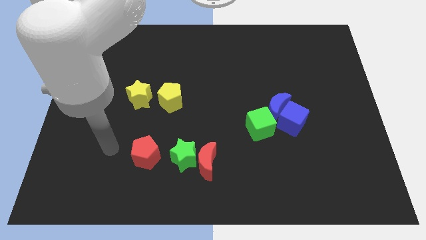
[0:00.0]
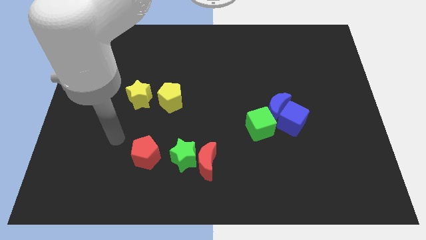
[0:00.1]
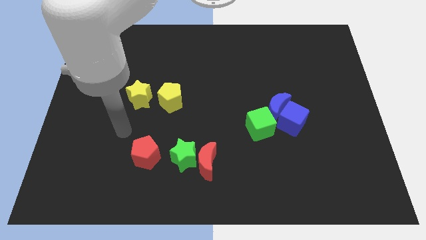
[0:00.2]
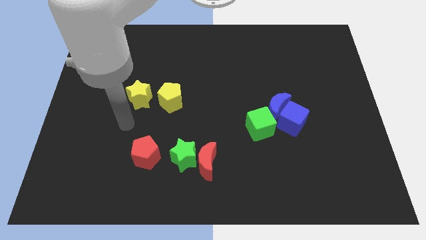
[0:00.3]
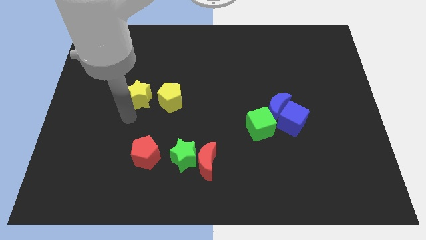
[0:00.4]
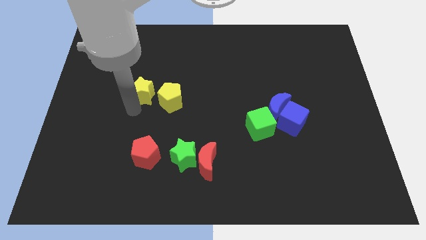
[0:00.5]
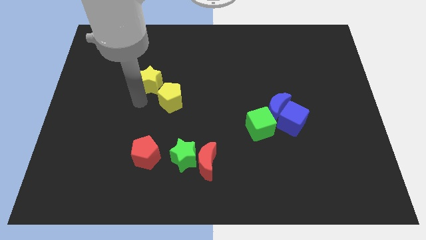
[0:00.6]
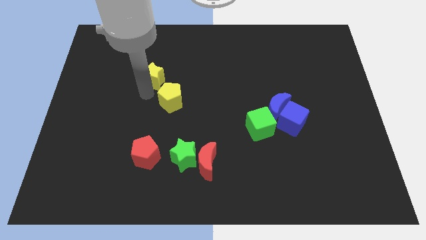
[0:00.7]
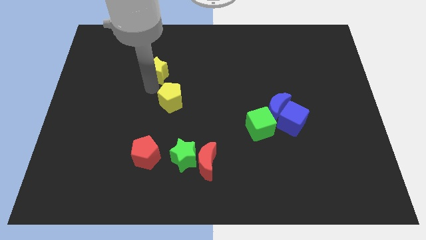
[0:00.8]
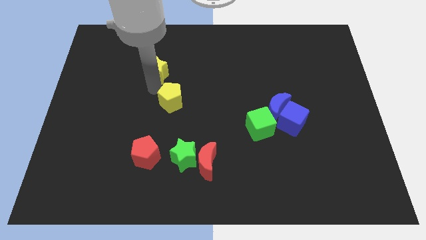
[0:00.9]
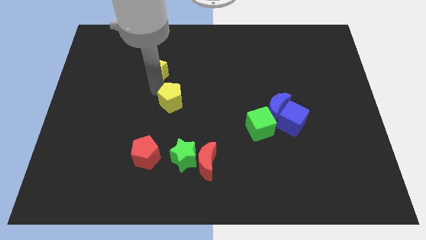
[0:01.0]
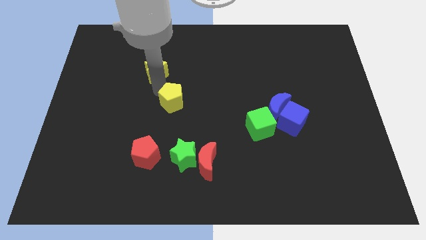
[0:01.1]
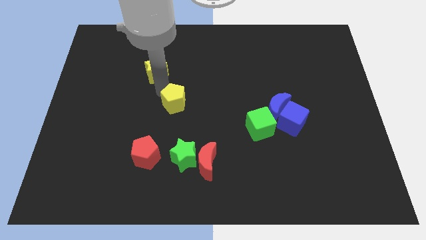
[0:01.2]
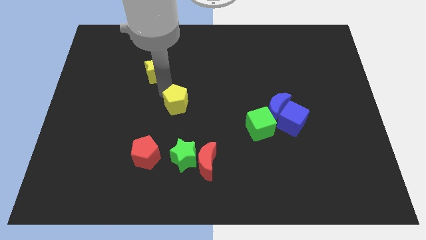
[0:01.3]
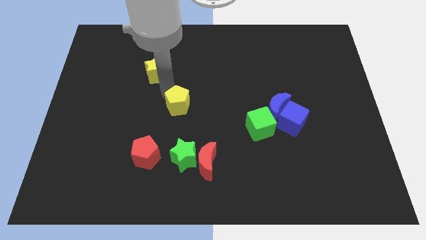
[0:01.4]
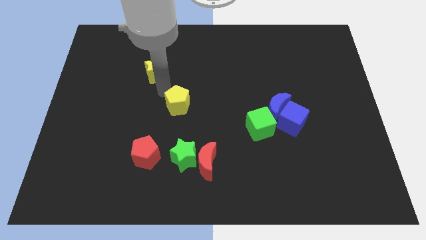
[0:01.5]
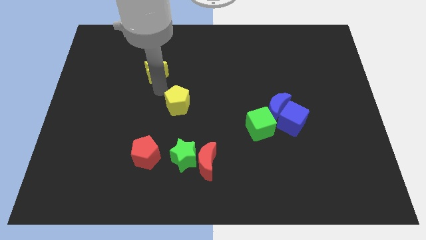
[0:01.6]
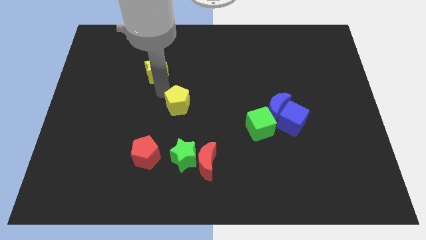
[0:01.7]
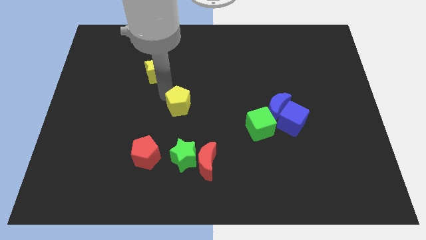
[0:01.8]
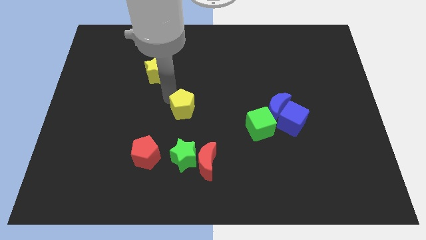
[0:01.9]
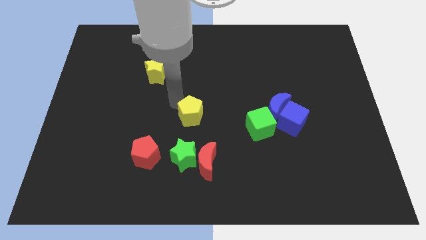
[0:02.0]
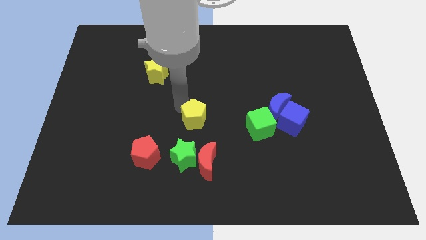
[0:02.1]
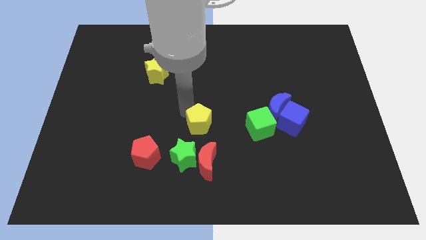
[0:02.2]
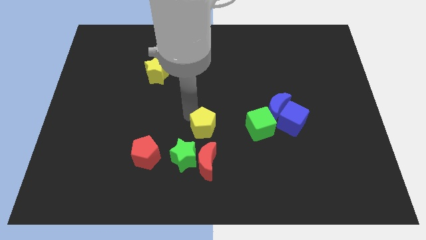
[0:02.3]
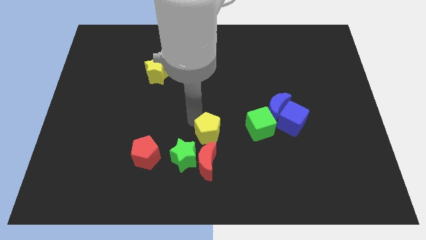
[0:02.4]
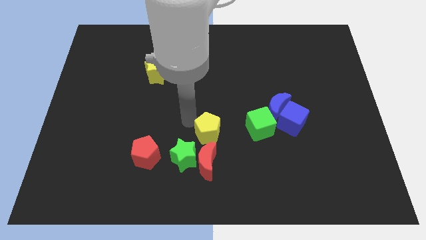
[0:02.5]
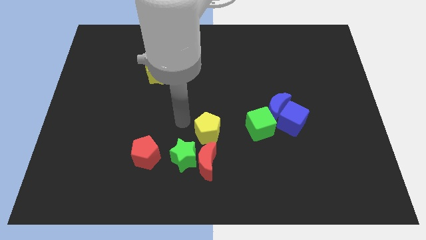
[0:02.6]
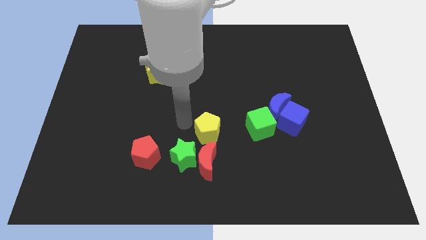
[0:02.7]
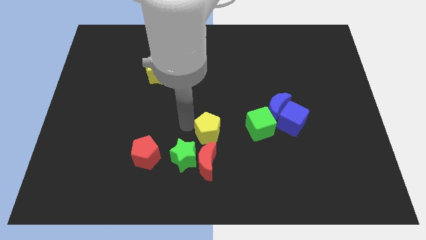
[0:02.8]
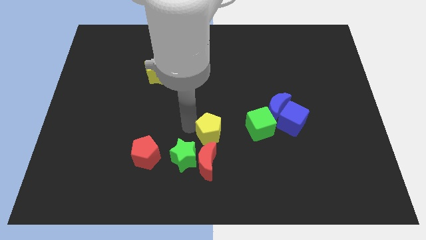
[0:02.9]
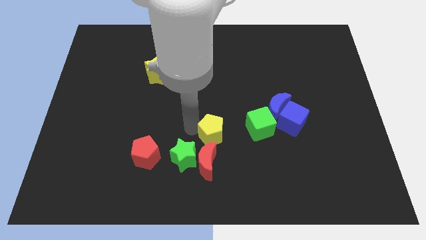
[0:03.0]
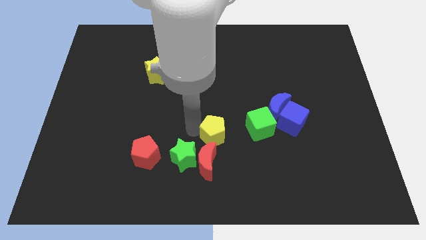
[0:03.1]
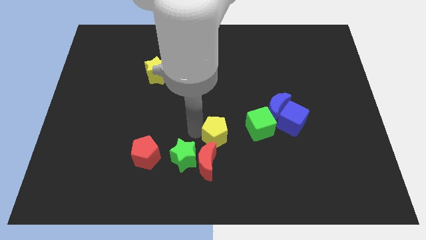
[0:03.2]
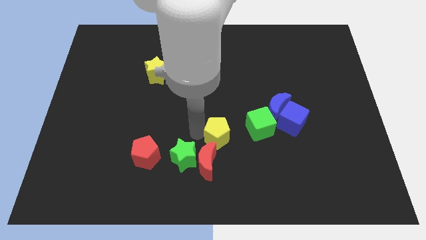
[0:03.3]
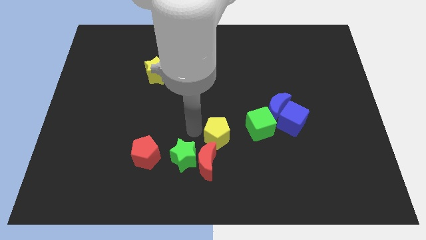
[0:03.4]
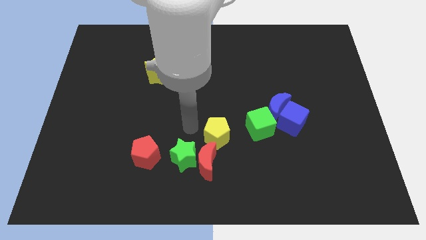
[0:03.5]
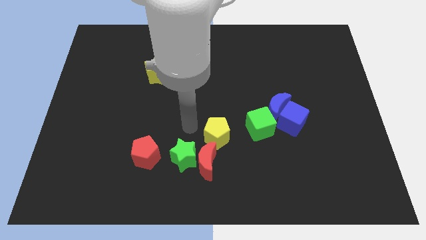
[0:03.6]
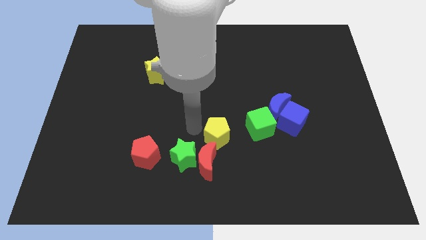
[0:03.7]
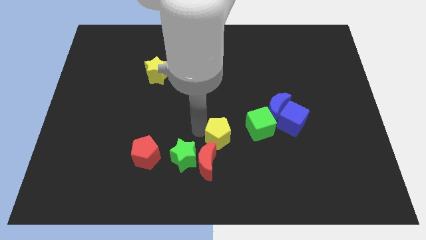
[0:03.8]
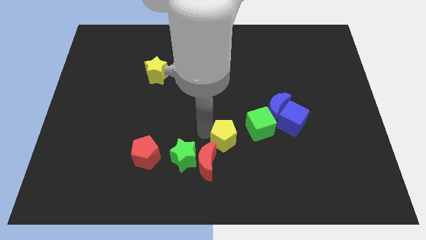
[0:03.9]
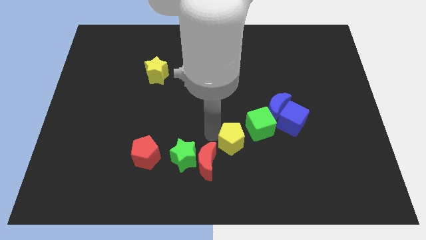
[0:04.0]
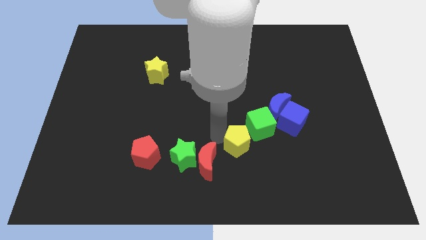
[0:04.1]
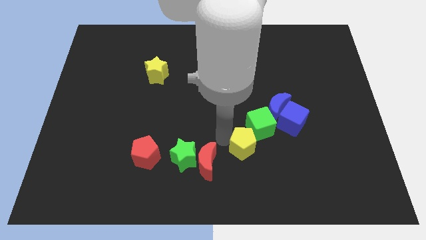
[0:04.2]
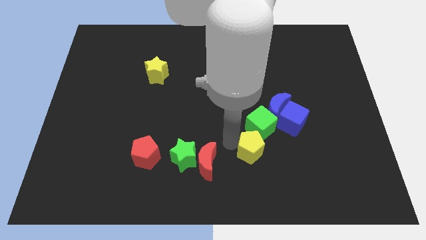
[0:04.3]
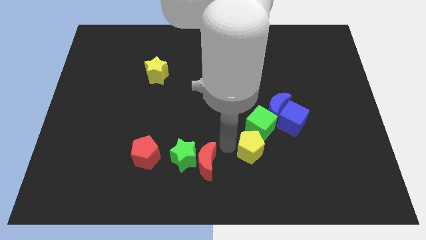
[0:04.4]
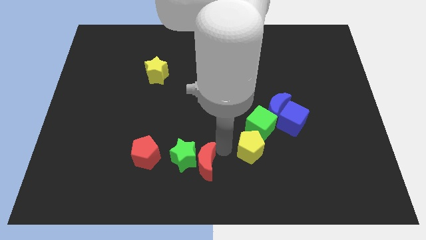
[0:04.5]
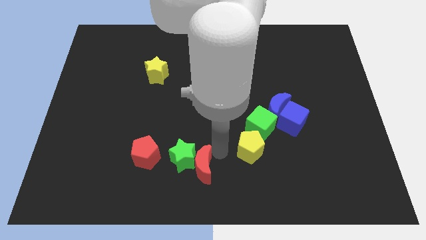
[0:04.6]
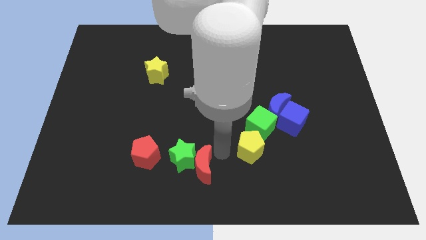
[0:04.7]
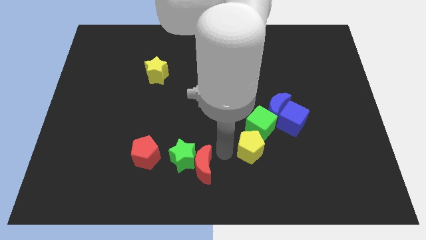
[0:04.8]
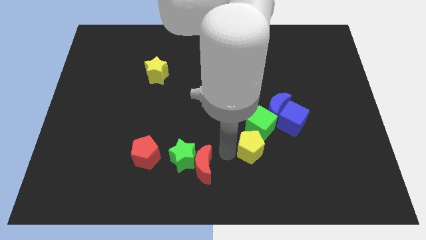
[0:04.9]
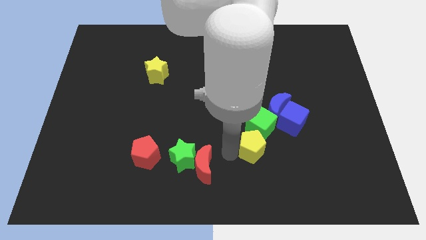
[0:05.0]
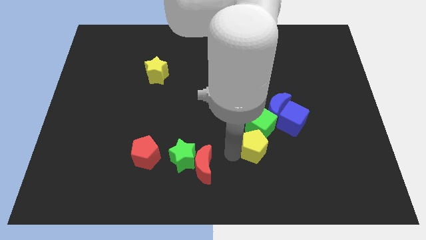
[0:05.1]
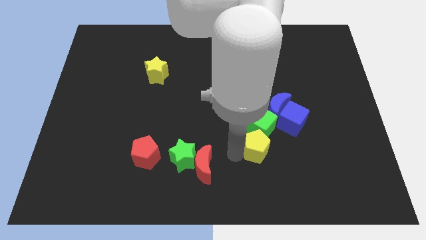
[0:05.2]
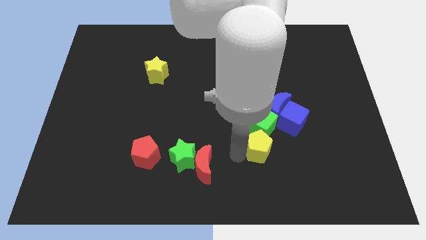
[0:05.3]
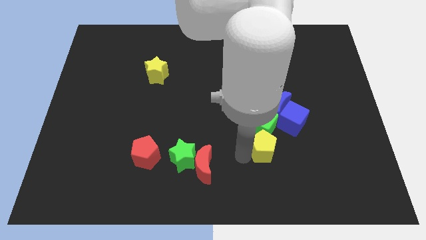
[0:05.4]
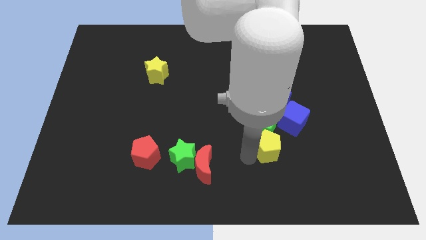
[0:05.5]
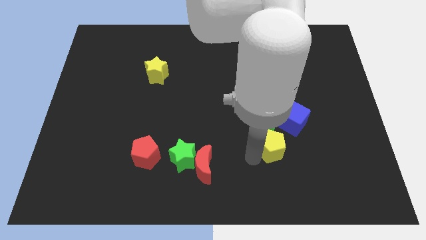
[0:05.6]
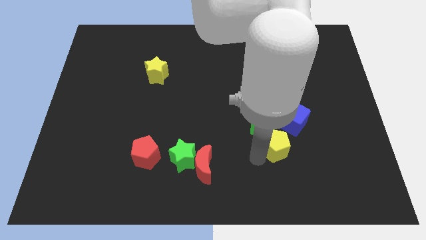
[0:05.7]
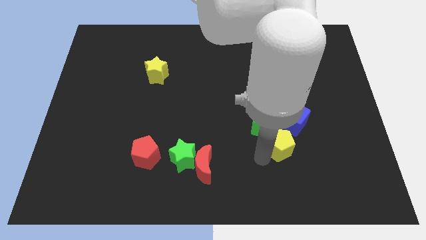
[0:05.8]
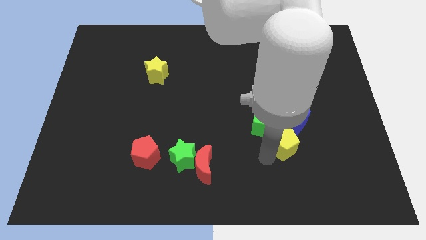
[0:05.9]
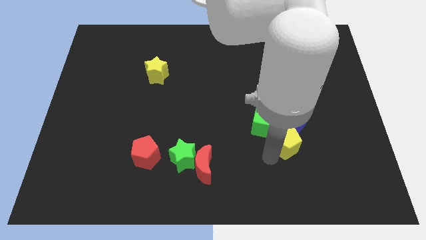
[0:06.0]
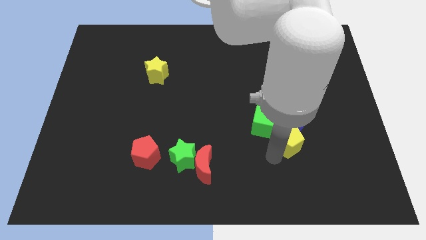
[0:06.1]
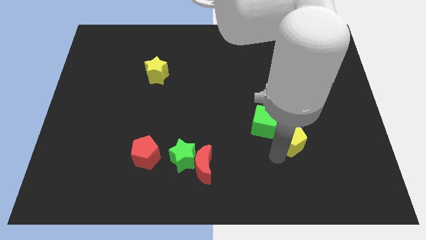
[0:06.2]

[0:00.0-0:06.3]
push the yellow pentagon next to the blue cube

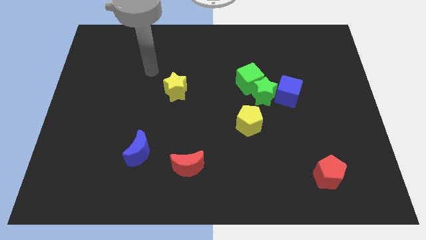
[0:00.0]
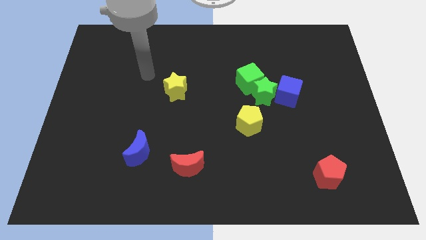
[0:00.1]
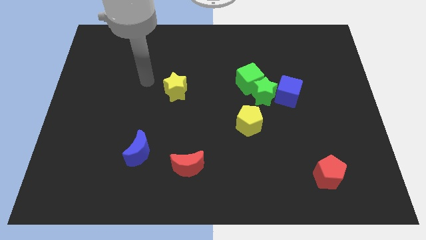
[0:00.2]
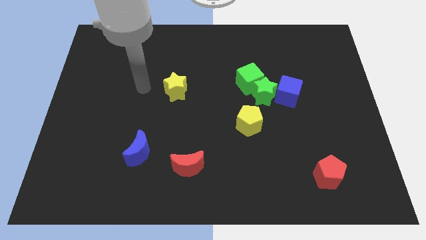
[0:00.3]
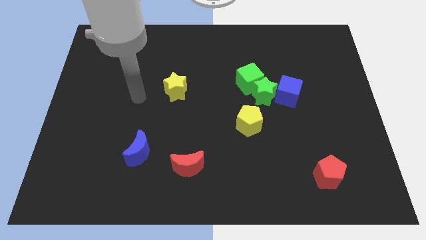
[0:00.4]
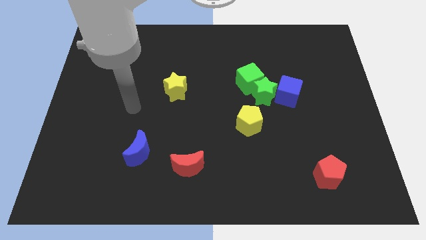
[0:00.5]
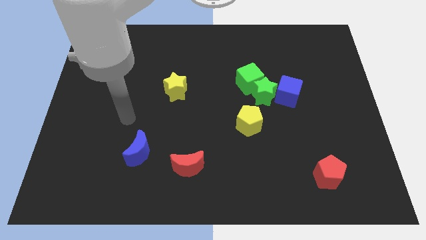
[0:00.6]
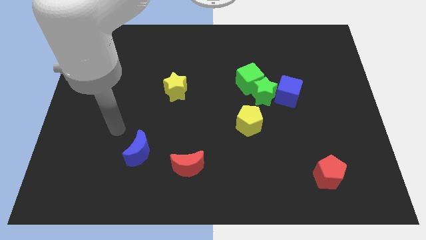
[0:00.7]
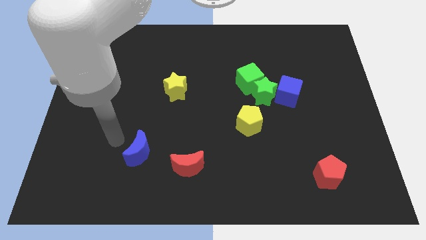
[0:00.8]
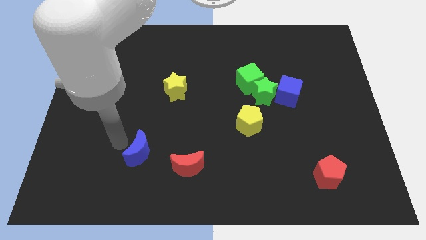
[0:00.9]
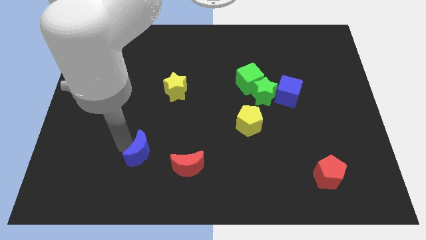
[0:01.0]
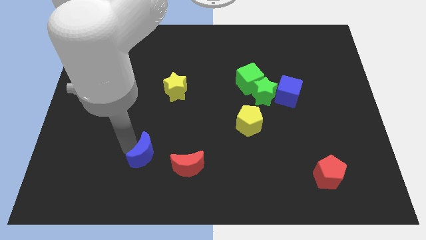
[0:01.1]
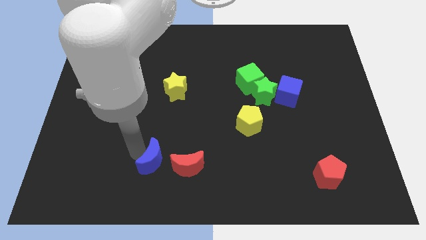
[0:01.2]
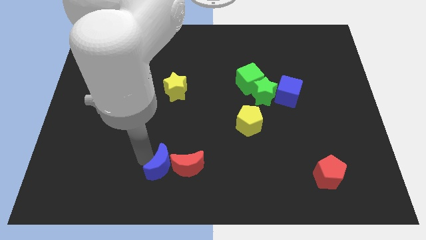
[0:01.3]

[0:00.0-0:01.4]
put the blue moon next to the red moon

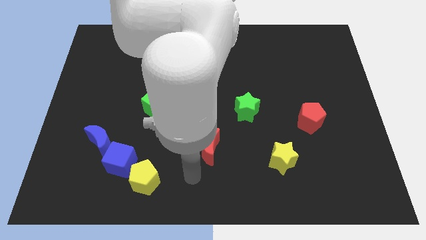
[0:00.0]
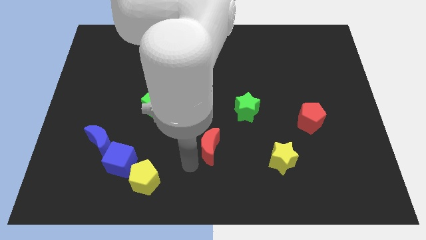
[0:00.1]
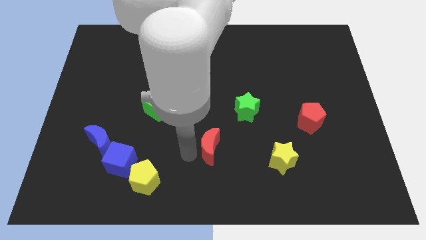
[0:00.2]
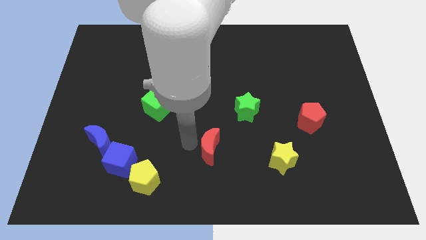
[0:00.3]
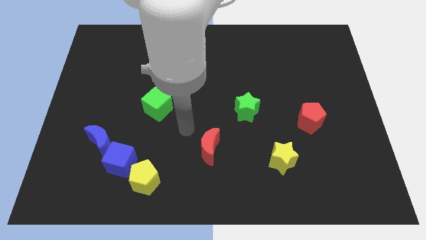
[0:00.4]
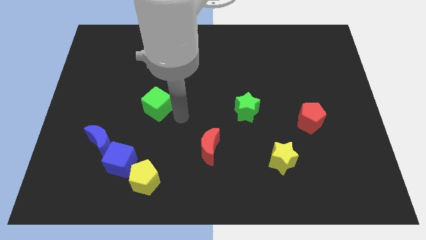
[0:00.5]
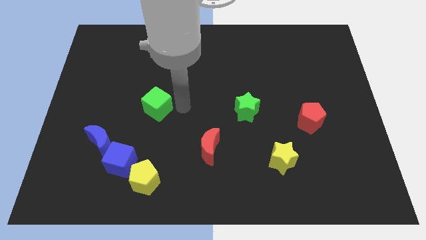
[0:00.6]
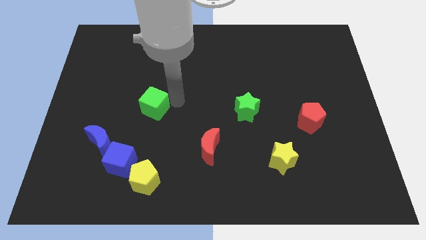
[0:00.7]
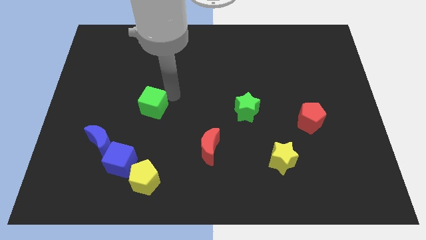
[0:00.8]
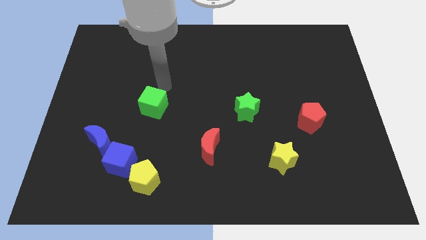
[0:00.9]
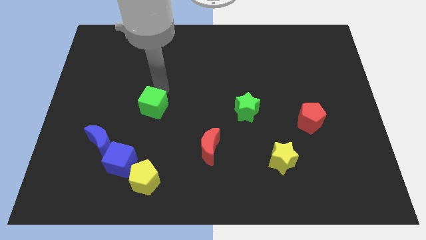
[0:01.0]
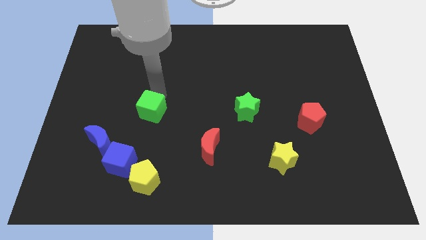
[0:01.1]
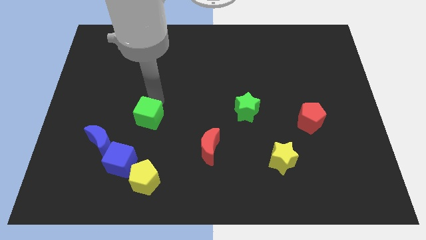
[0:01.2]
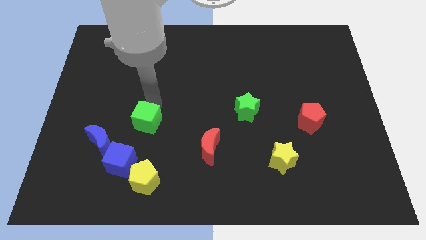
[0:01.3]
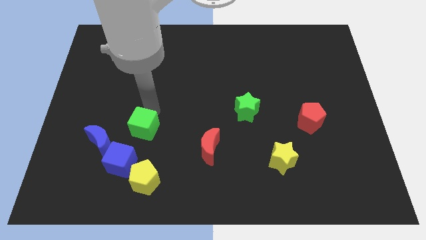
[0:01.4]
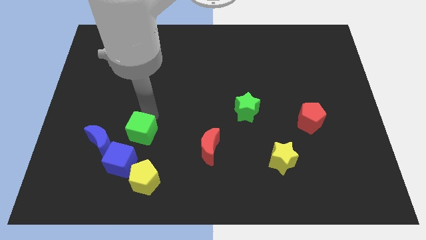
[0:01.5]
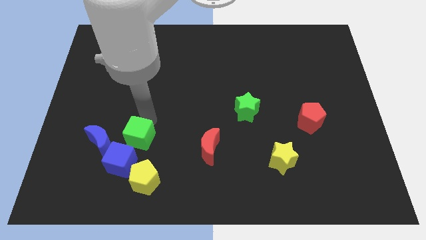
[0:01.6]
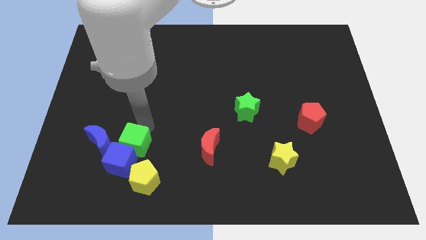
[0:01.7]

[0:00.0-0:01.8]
put the green cube close to the blue cube
